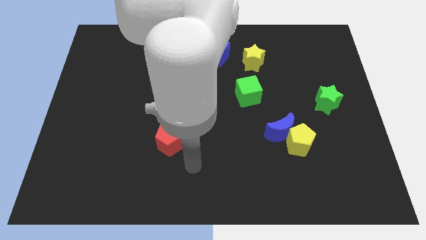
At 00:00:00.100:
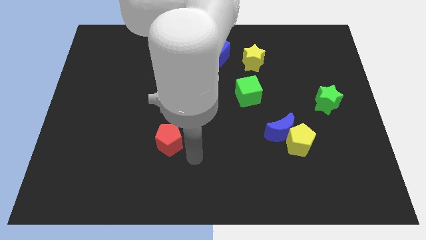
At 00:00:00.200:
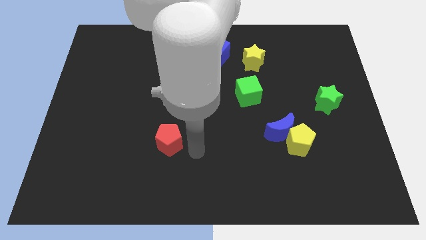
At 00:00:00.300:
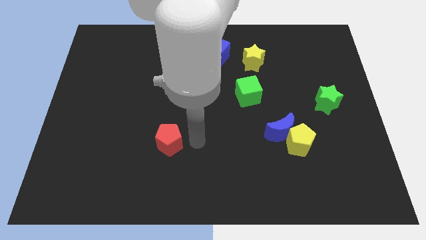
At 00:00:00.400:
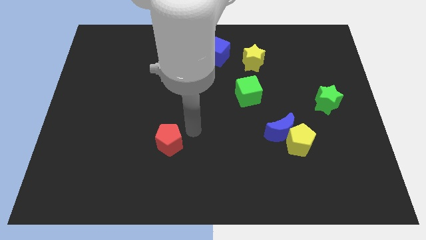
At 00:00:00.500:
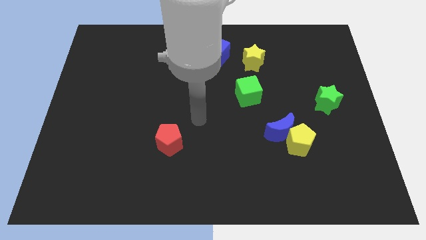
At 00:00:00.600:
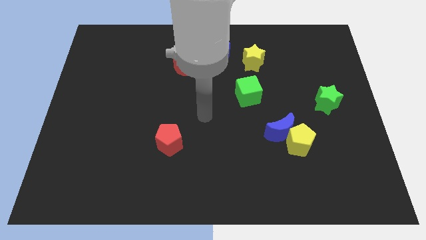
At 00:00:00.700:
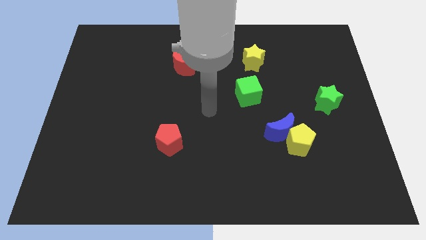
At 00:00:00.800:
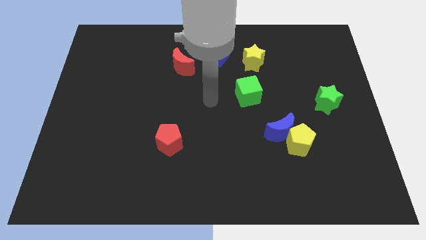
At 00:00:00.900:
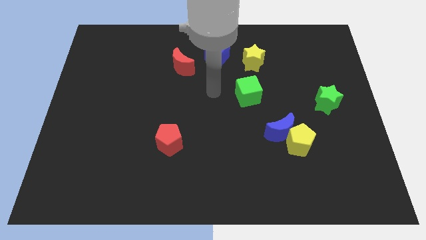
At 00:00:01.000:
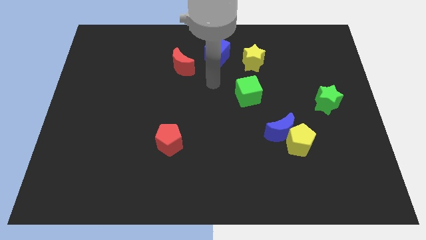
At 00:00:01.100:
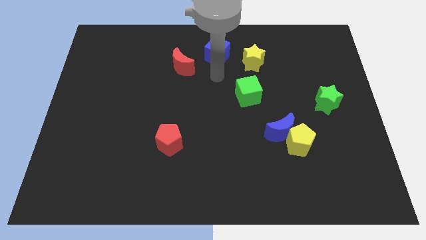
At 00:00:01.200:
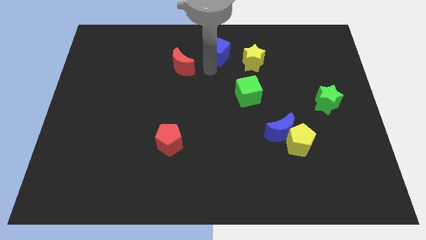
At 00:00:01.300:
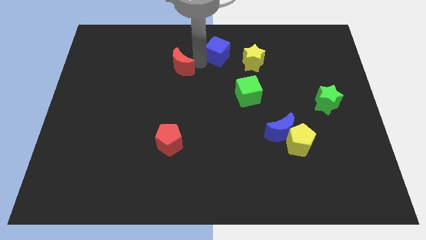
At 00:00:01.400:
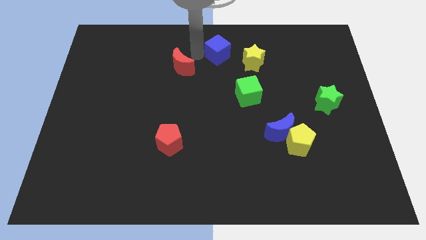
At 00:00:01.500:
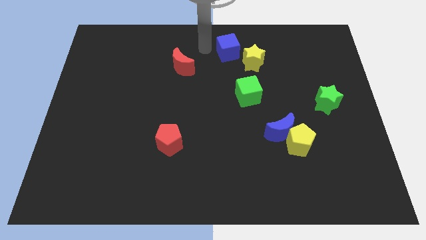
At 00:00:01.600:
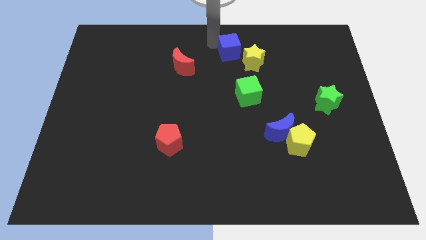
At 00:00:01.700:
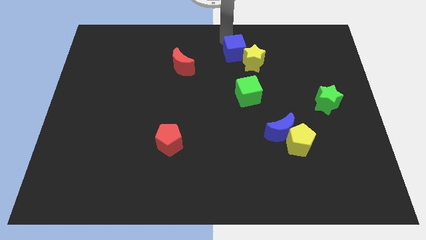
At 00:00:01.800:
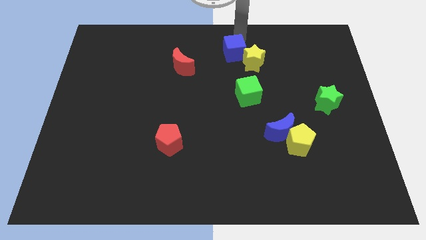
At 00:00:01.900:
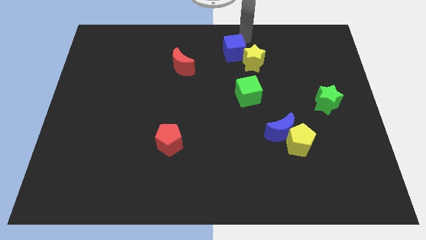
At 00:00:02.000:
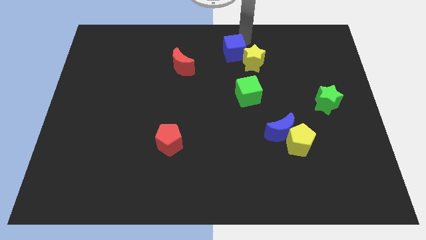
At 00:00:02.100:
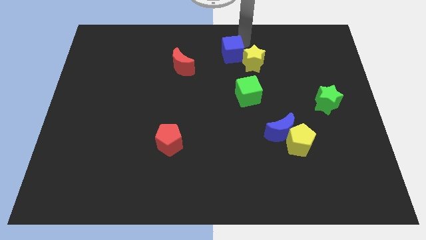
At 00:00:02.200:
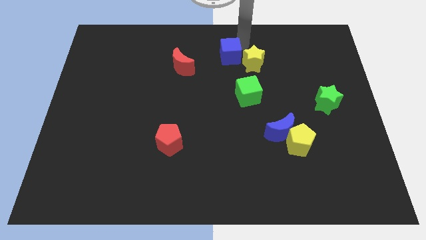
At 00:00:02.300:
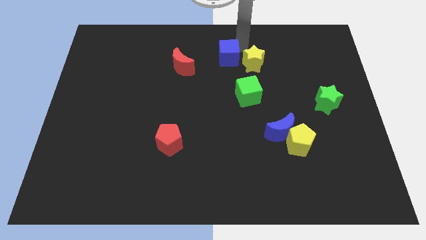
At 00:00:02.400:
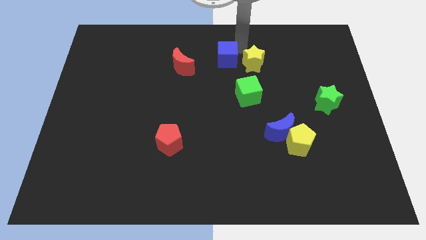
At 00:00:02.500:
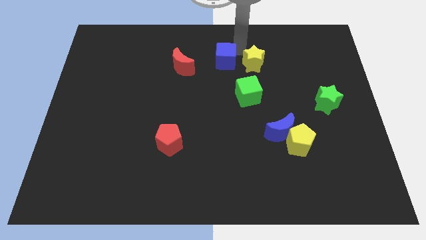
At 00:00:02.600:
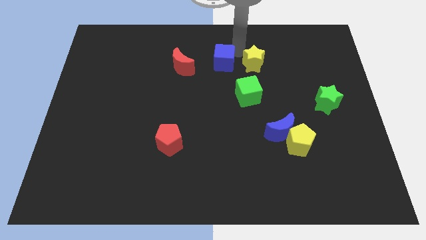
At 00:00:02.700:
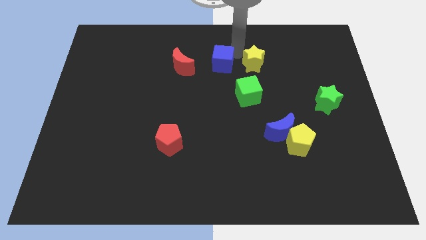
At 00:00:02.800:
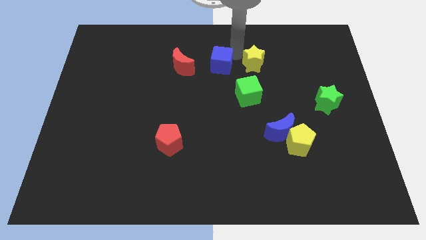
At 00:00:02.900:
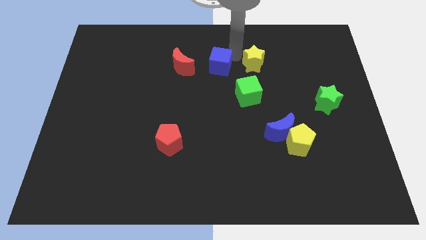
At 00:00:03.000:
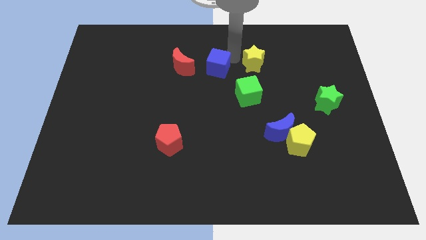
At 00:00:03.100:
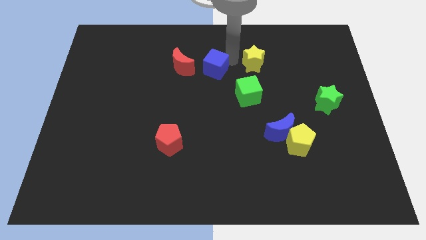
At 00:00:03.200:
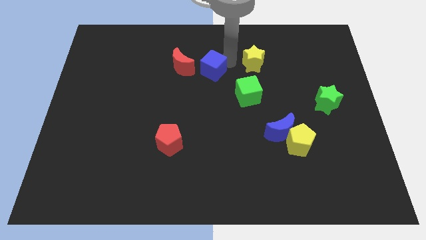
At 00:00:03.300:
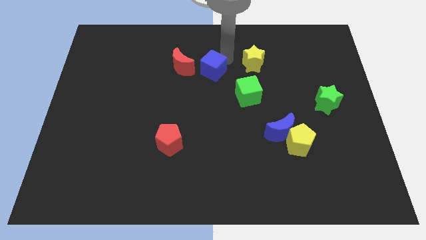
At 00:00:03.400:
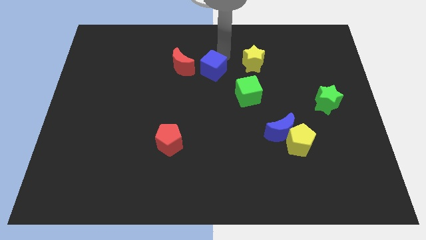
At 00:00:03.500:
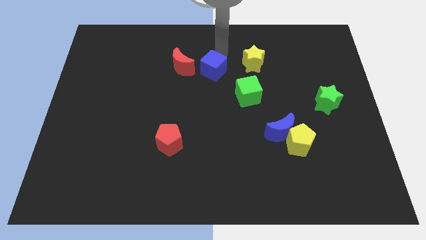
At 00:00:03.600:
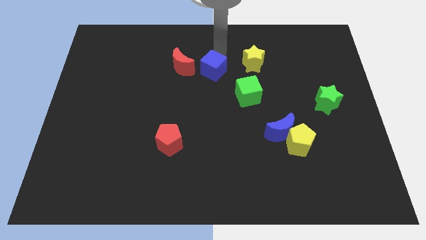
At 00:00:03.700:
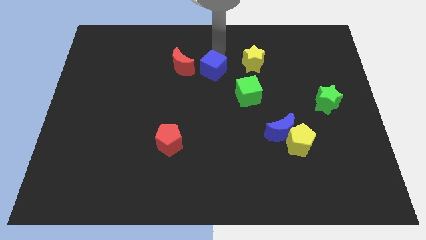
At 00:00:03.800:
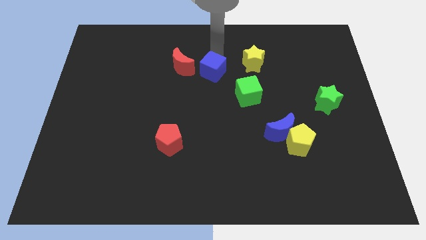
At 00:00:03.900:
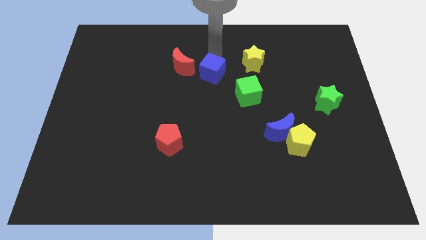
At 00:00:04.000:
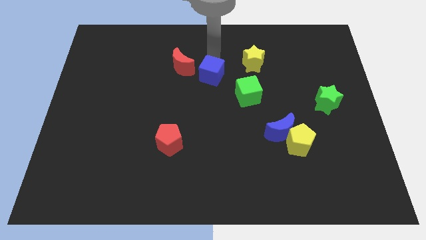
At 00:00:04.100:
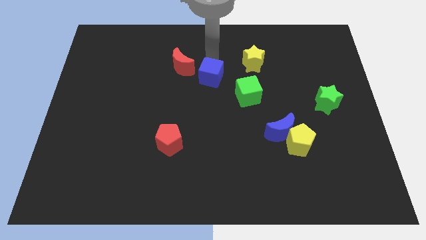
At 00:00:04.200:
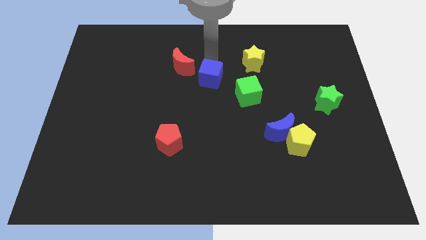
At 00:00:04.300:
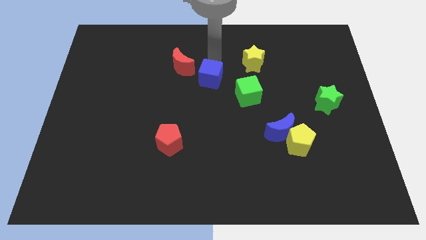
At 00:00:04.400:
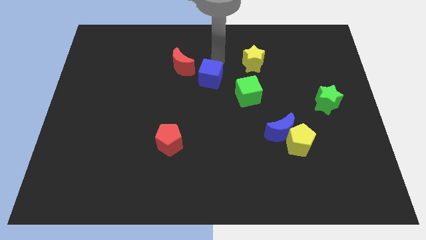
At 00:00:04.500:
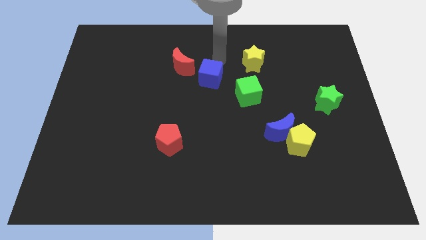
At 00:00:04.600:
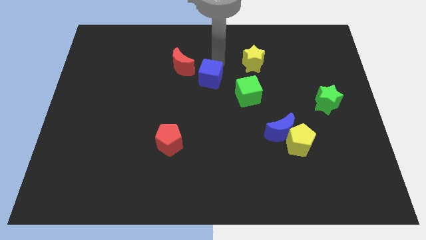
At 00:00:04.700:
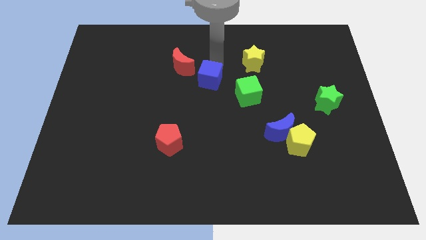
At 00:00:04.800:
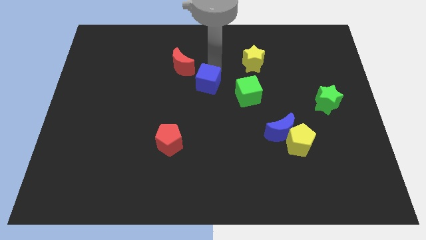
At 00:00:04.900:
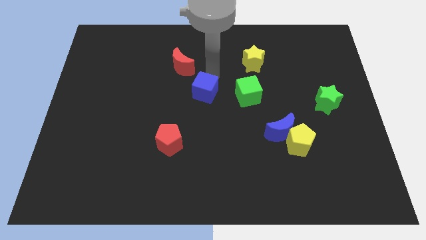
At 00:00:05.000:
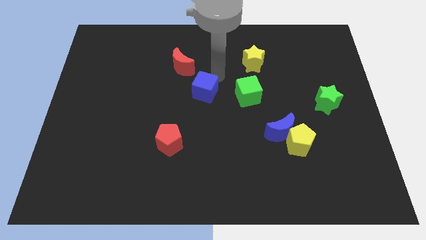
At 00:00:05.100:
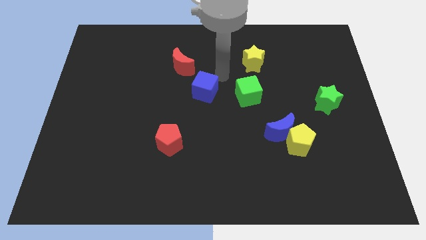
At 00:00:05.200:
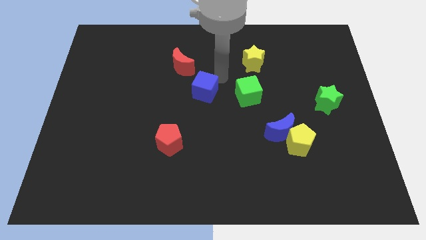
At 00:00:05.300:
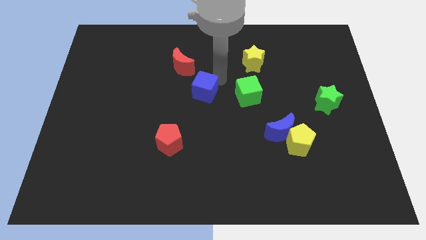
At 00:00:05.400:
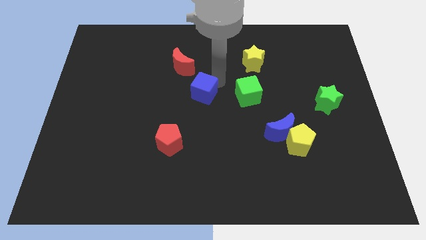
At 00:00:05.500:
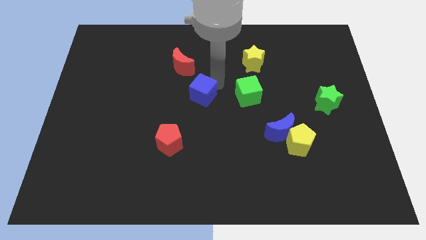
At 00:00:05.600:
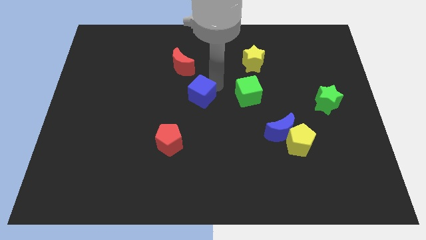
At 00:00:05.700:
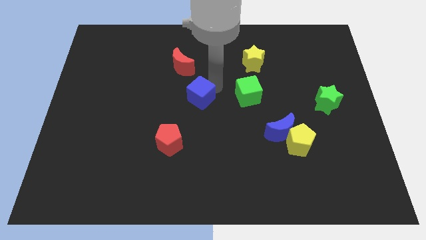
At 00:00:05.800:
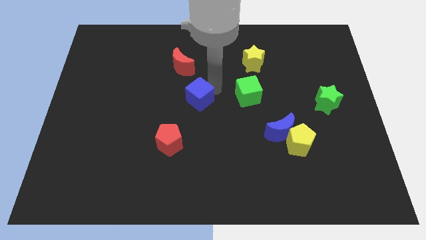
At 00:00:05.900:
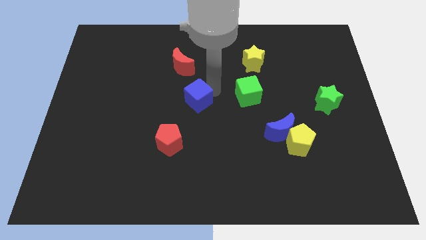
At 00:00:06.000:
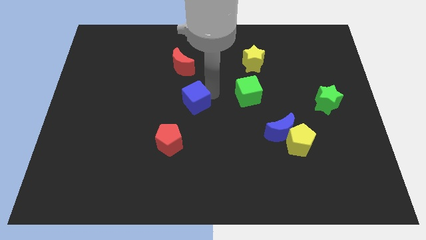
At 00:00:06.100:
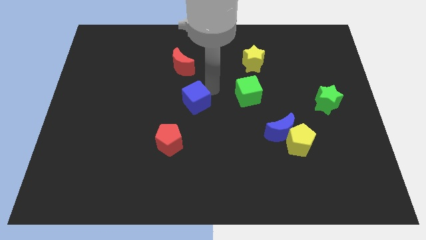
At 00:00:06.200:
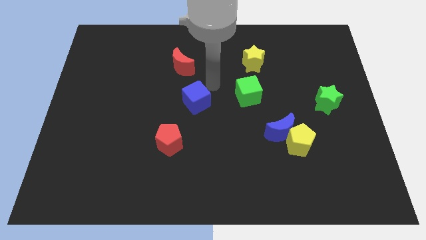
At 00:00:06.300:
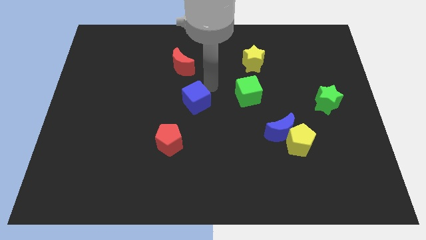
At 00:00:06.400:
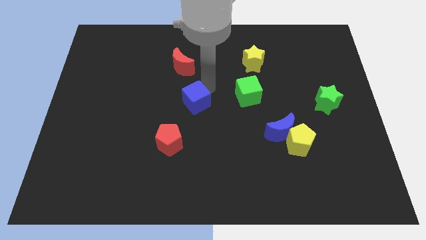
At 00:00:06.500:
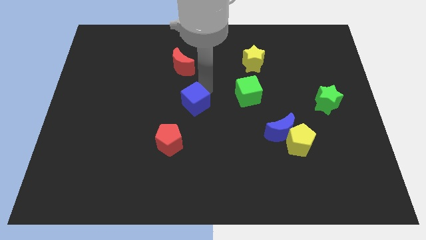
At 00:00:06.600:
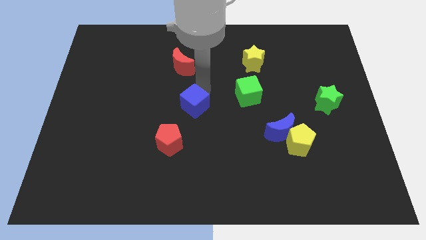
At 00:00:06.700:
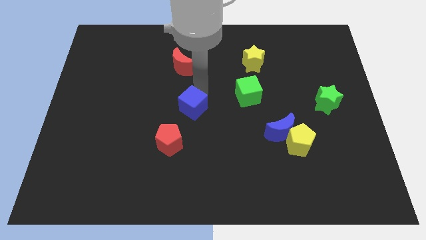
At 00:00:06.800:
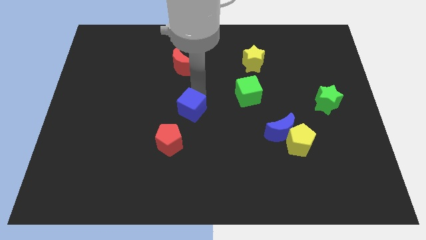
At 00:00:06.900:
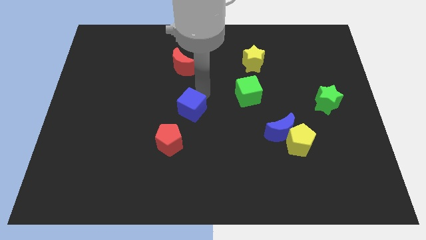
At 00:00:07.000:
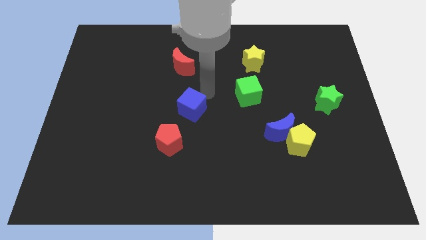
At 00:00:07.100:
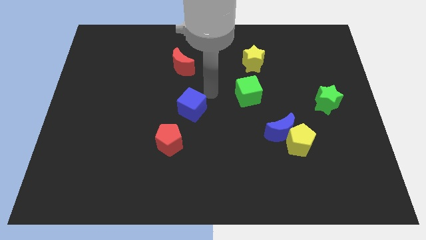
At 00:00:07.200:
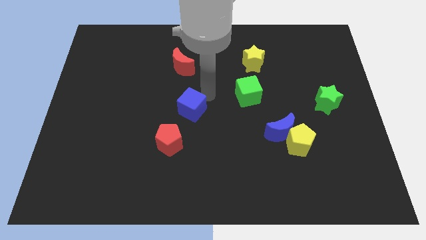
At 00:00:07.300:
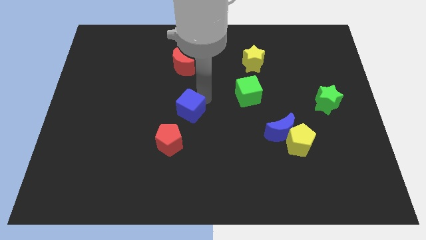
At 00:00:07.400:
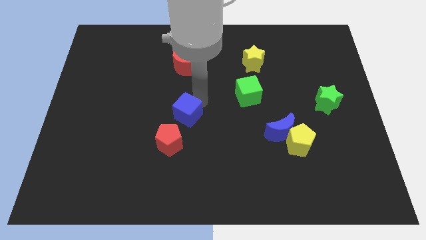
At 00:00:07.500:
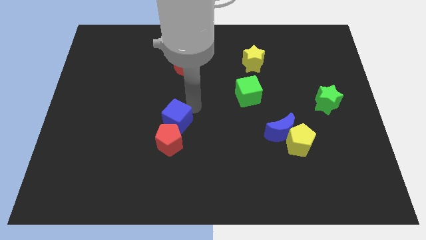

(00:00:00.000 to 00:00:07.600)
put the blue cube to the red pentagon
